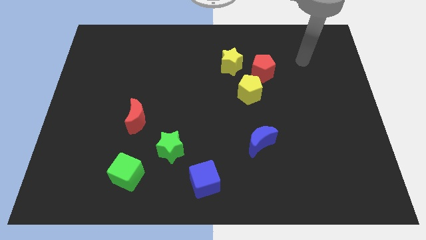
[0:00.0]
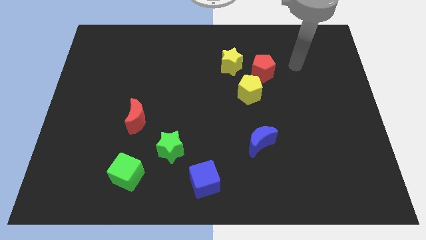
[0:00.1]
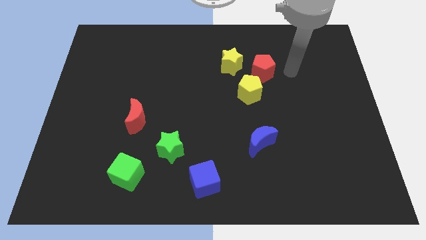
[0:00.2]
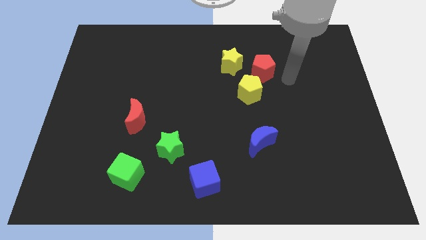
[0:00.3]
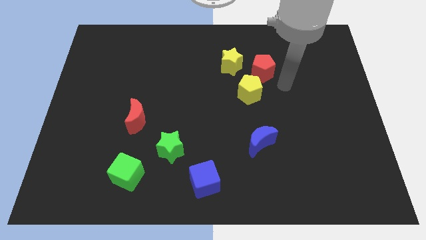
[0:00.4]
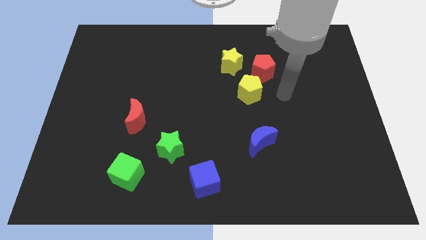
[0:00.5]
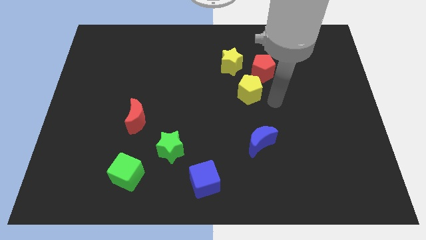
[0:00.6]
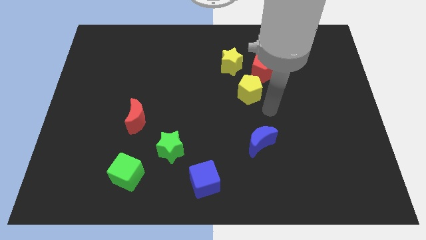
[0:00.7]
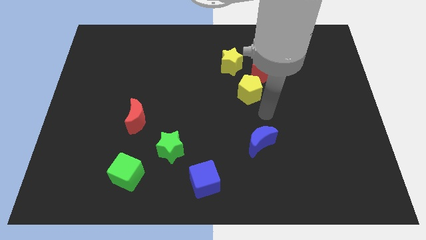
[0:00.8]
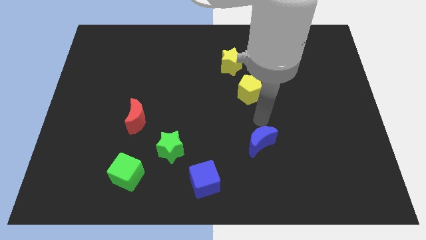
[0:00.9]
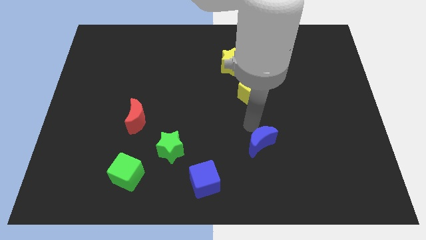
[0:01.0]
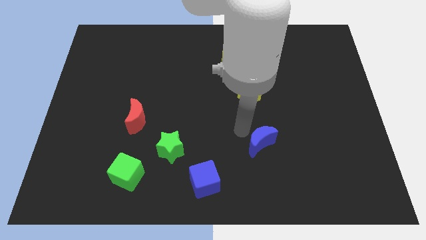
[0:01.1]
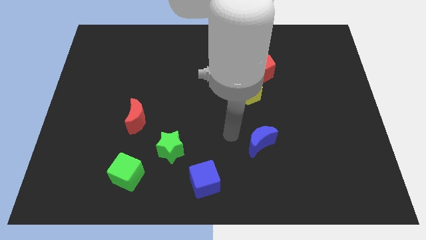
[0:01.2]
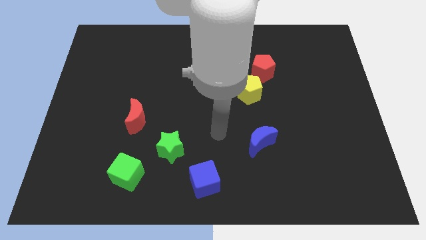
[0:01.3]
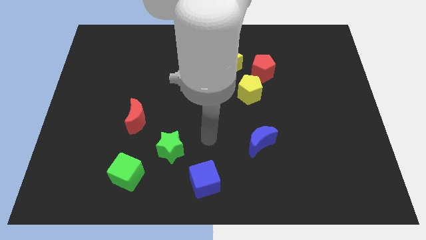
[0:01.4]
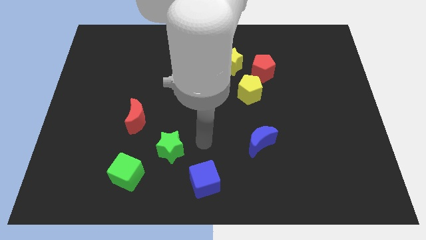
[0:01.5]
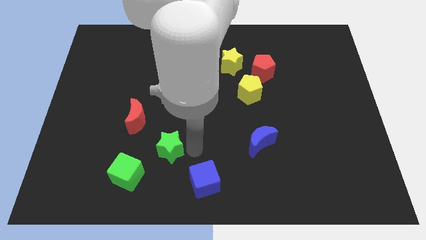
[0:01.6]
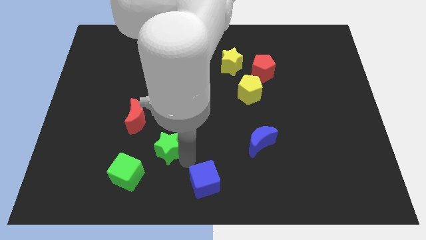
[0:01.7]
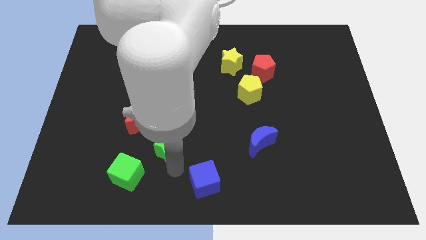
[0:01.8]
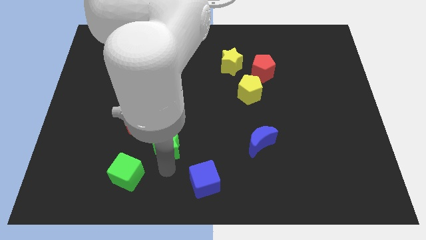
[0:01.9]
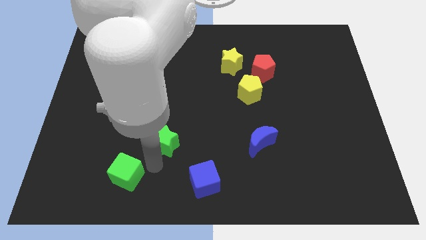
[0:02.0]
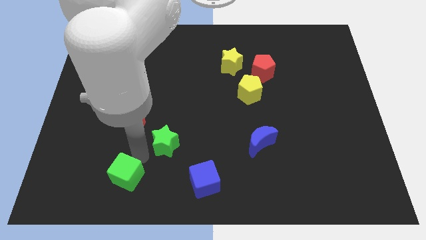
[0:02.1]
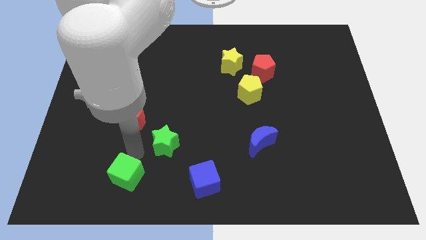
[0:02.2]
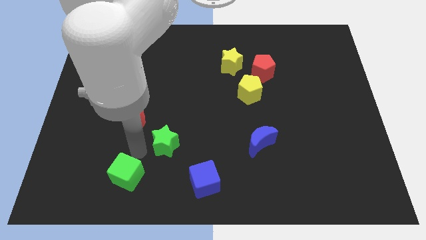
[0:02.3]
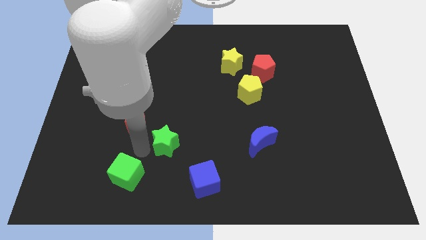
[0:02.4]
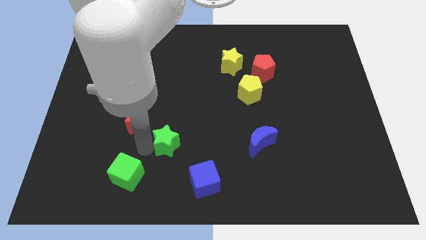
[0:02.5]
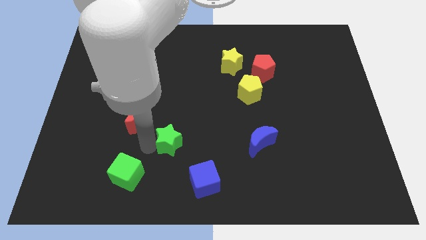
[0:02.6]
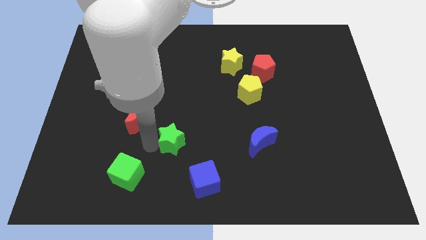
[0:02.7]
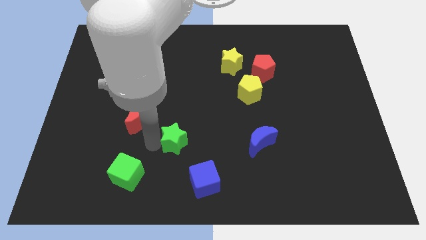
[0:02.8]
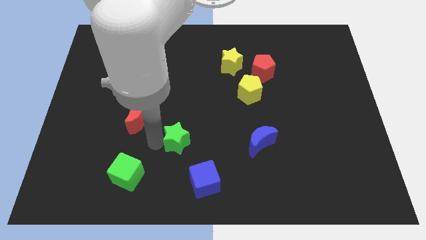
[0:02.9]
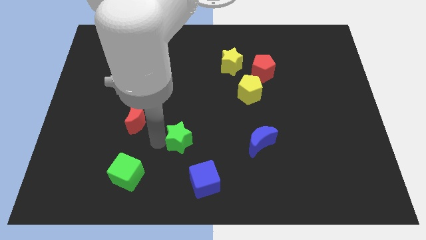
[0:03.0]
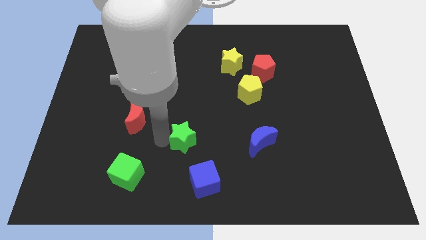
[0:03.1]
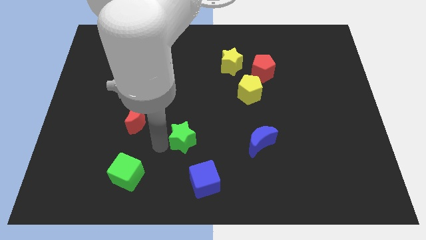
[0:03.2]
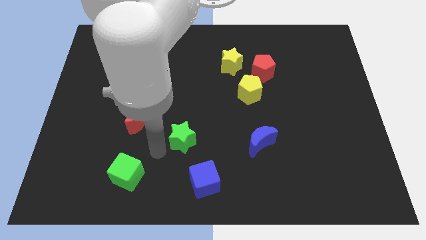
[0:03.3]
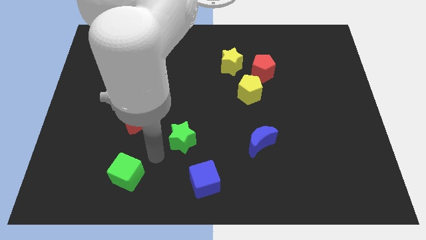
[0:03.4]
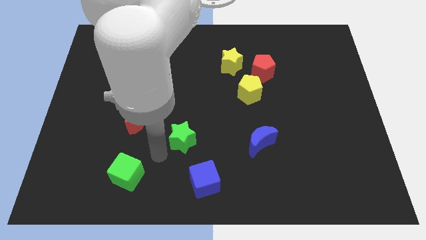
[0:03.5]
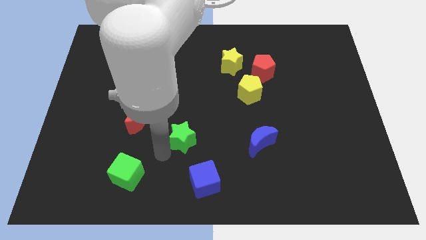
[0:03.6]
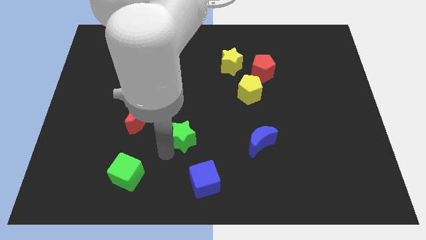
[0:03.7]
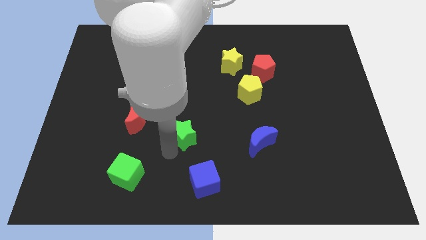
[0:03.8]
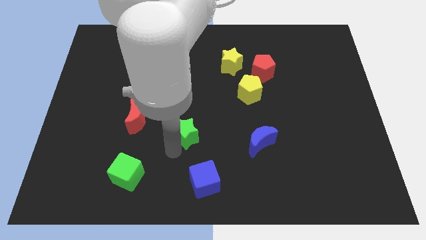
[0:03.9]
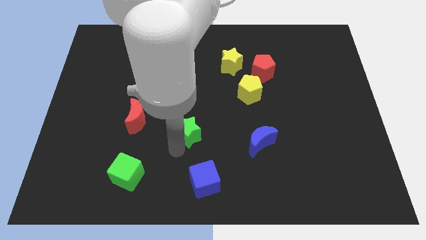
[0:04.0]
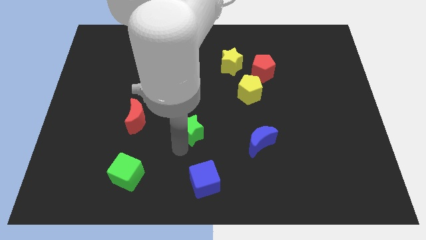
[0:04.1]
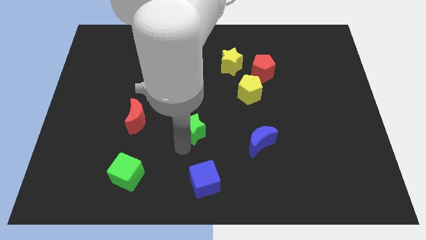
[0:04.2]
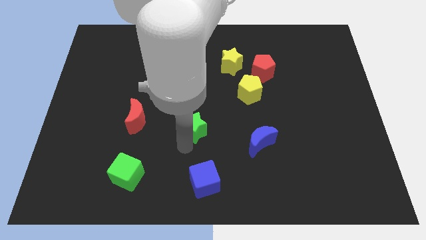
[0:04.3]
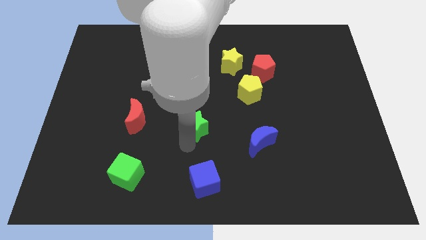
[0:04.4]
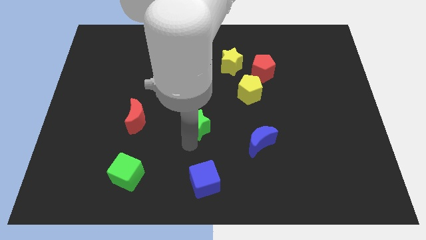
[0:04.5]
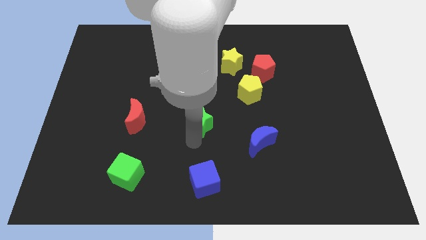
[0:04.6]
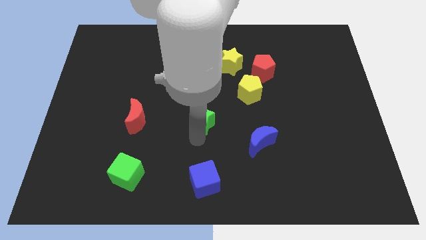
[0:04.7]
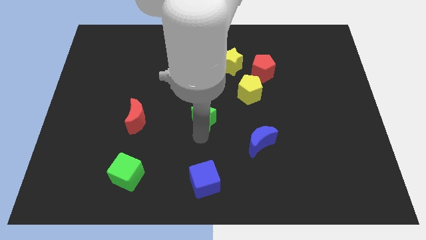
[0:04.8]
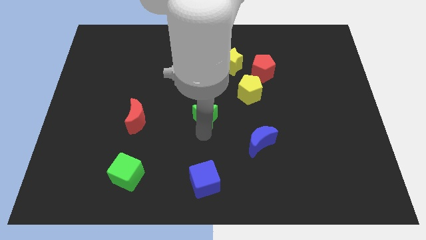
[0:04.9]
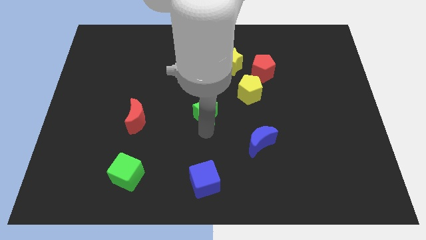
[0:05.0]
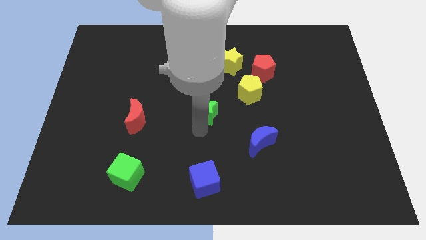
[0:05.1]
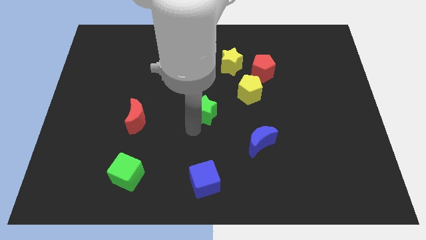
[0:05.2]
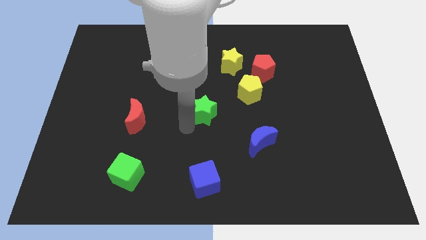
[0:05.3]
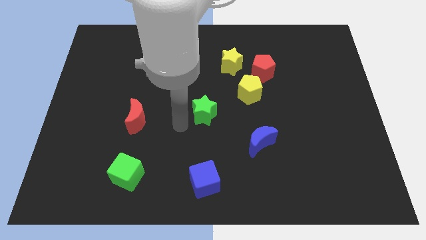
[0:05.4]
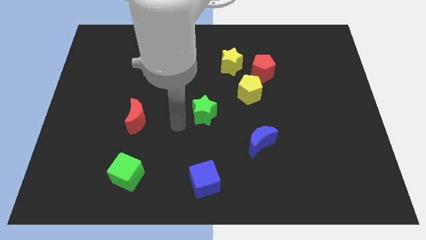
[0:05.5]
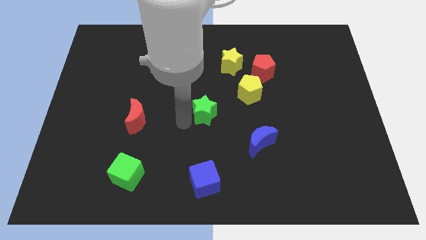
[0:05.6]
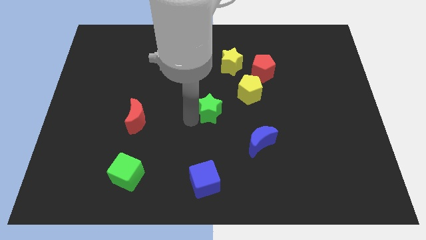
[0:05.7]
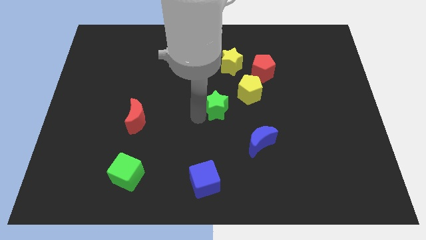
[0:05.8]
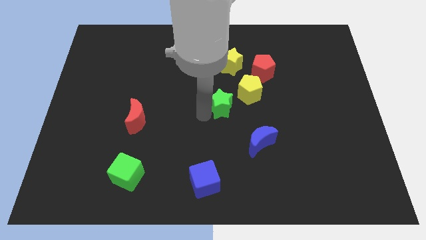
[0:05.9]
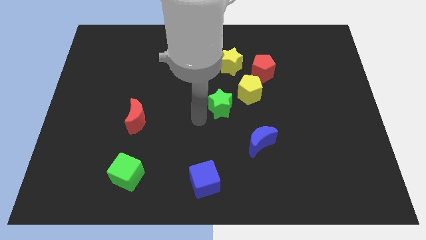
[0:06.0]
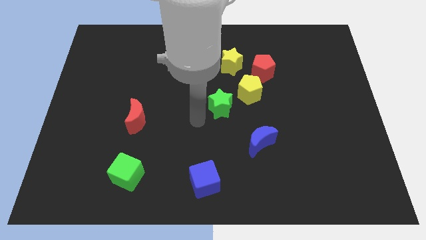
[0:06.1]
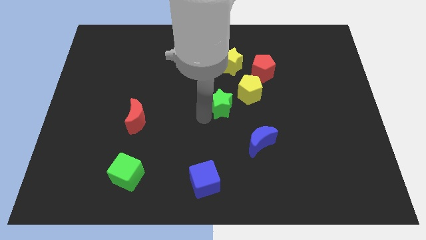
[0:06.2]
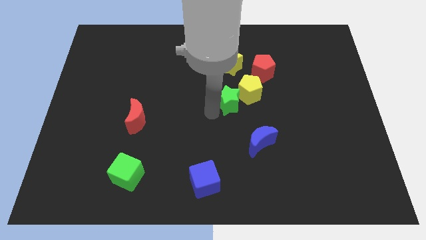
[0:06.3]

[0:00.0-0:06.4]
put the green star to the yellow pentagon

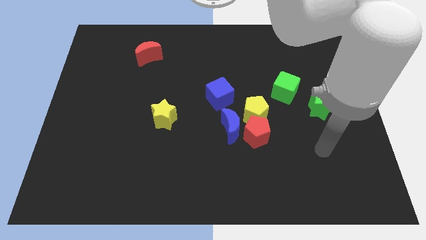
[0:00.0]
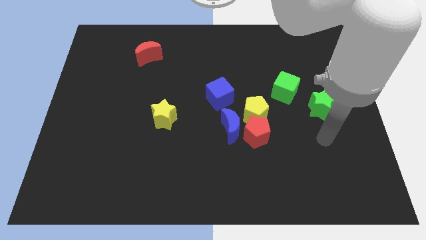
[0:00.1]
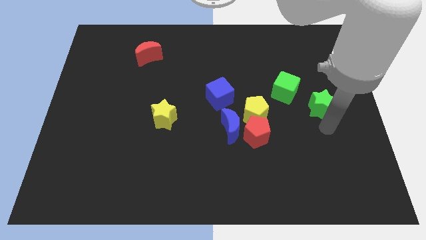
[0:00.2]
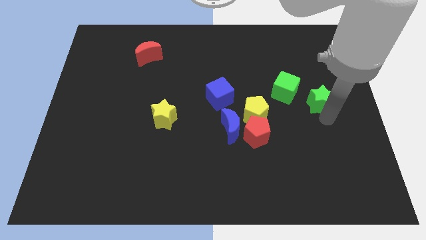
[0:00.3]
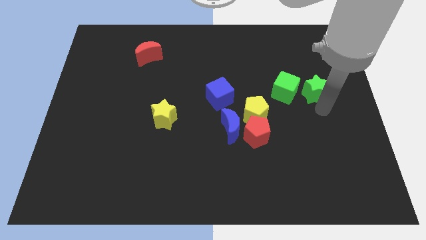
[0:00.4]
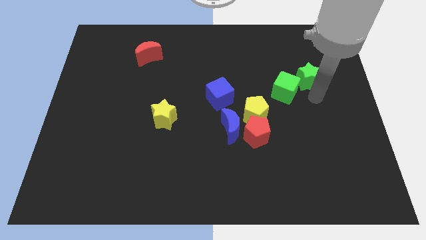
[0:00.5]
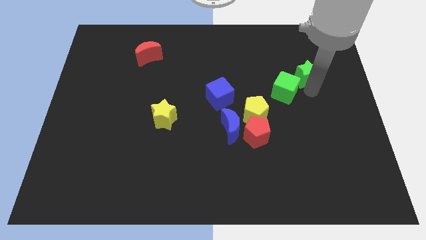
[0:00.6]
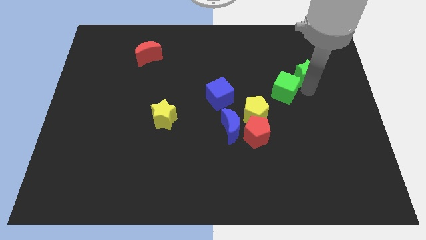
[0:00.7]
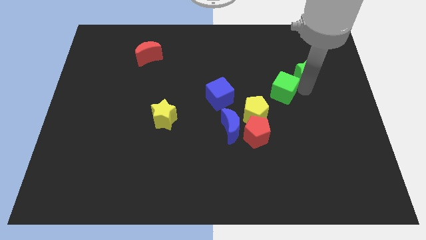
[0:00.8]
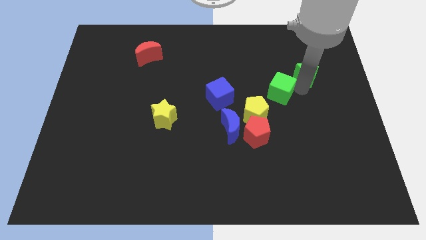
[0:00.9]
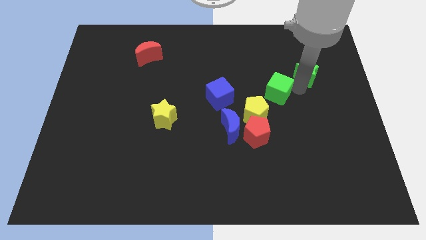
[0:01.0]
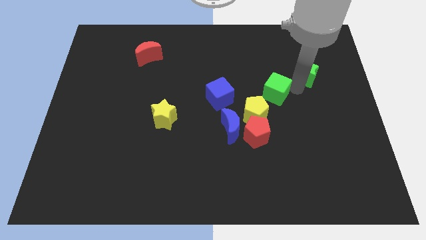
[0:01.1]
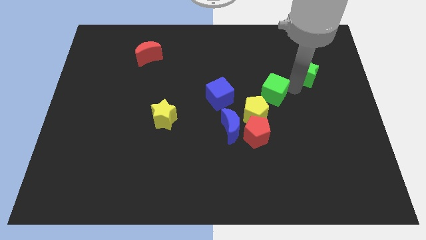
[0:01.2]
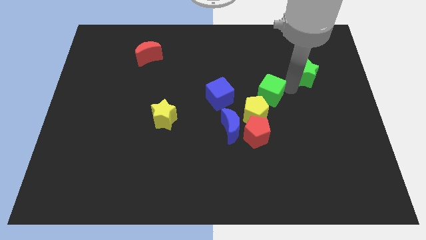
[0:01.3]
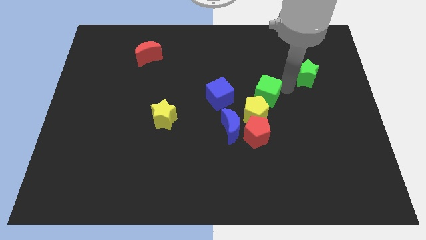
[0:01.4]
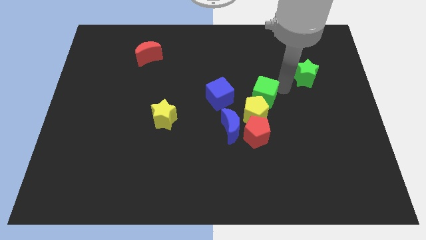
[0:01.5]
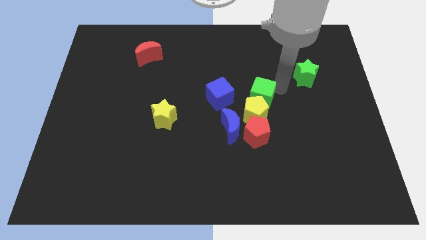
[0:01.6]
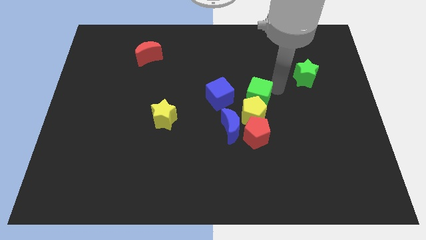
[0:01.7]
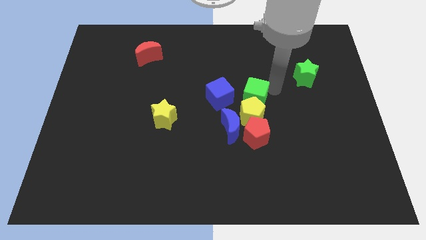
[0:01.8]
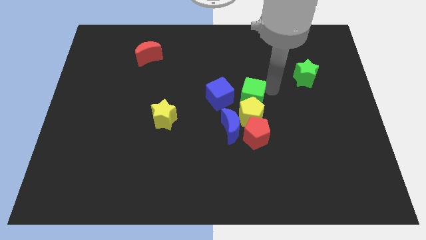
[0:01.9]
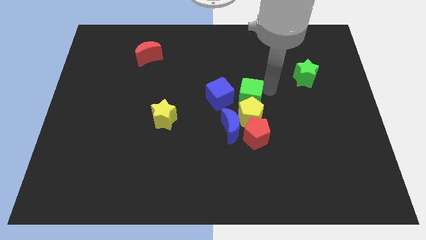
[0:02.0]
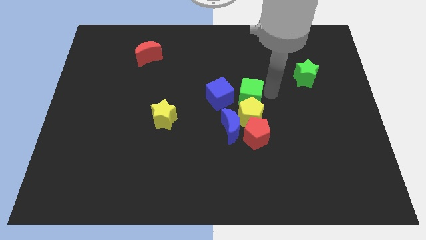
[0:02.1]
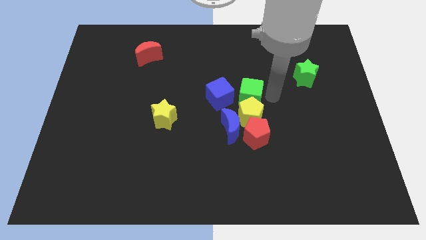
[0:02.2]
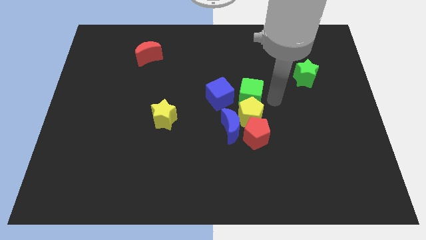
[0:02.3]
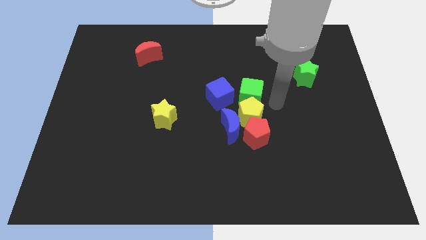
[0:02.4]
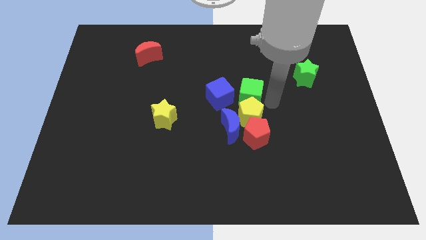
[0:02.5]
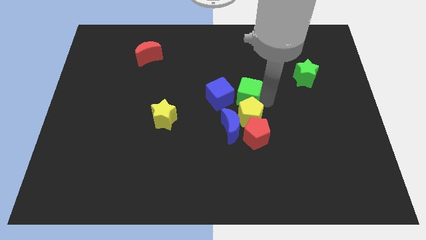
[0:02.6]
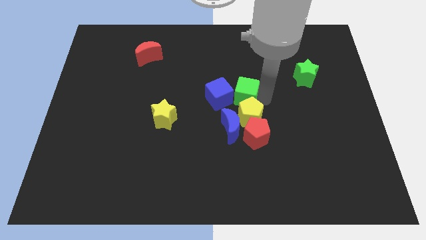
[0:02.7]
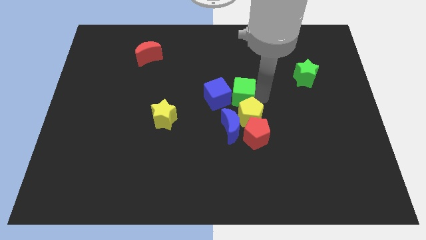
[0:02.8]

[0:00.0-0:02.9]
put the green cube towards the blue cube
